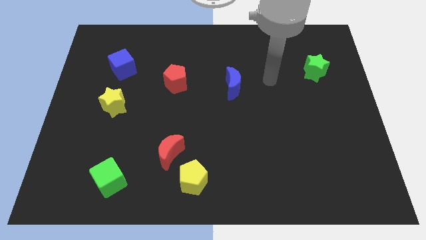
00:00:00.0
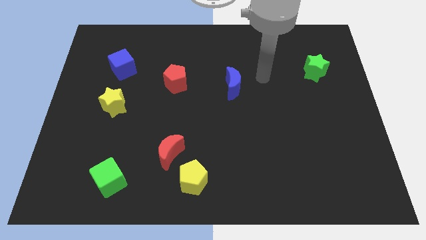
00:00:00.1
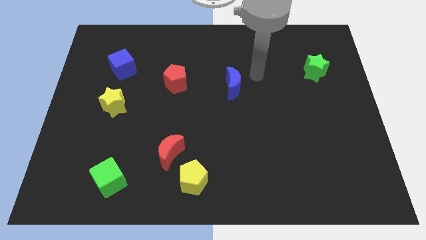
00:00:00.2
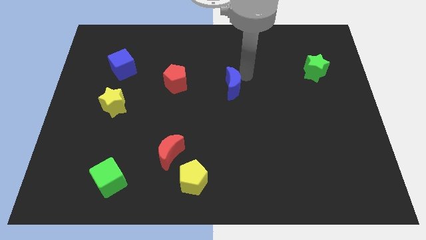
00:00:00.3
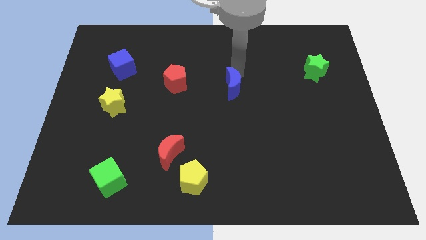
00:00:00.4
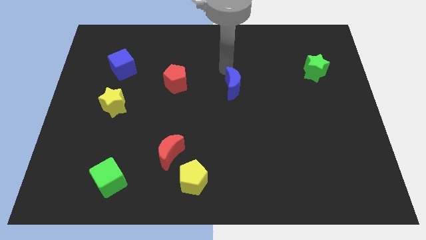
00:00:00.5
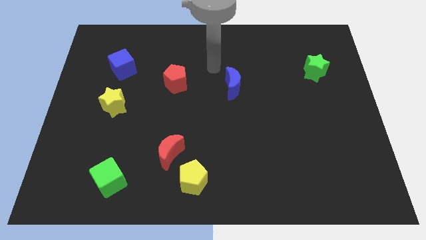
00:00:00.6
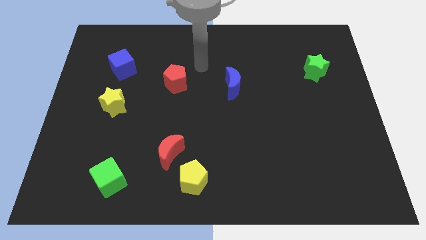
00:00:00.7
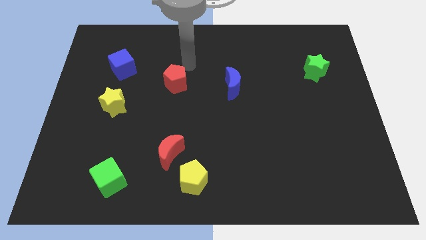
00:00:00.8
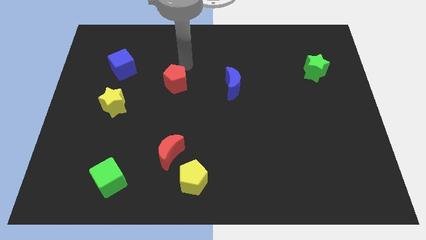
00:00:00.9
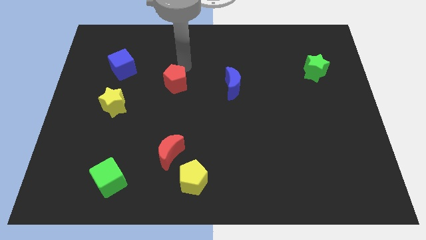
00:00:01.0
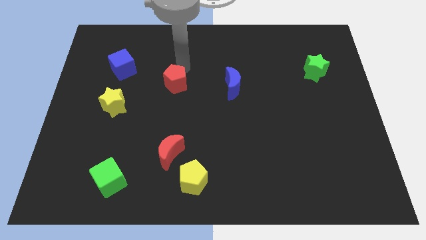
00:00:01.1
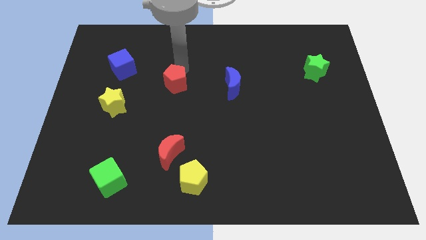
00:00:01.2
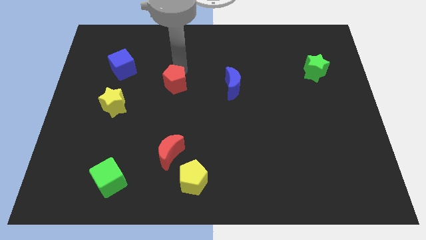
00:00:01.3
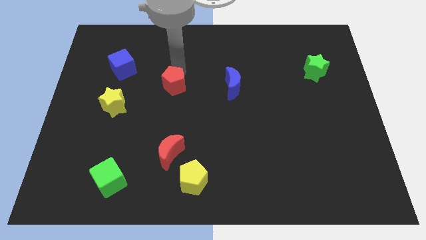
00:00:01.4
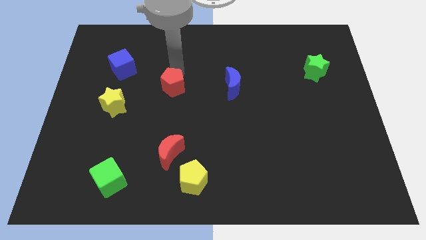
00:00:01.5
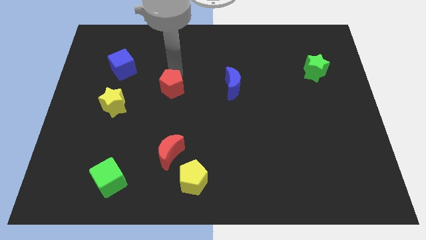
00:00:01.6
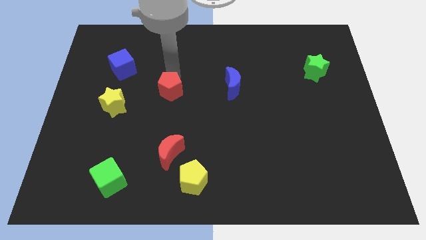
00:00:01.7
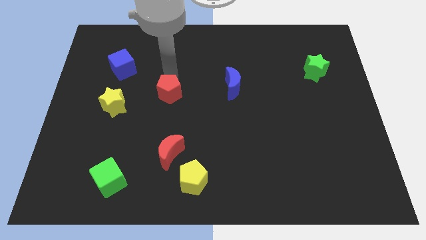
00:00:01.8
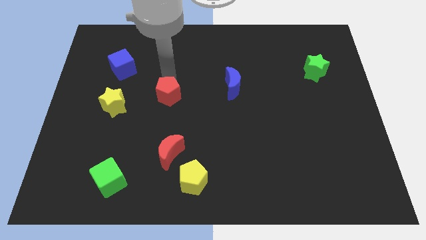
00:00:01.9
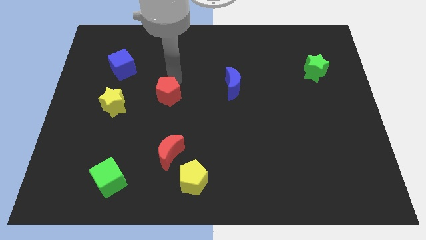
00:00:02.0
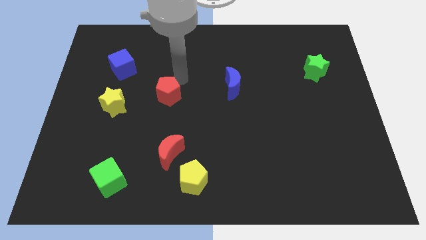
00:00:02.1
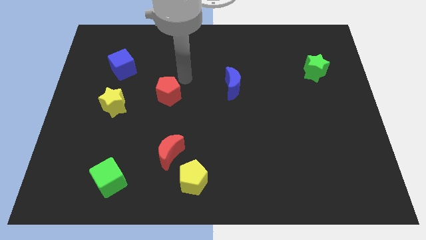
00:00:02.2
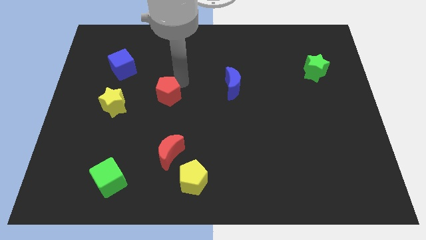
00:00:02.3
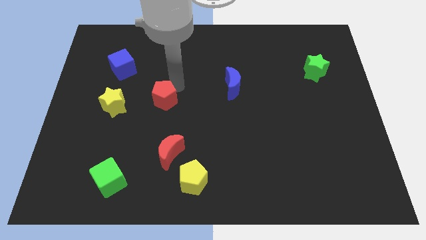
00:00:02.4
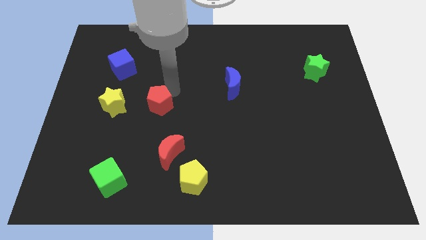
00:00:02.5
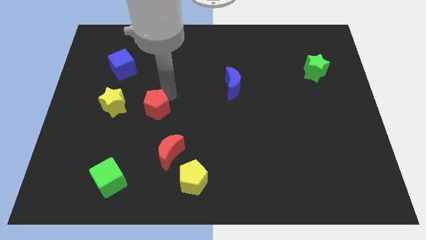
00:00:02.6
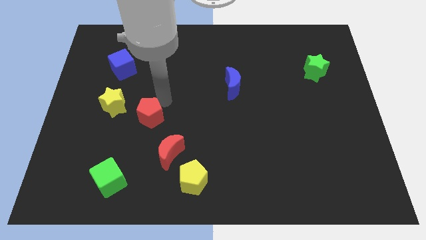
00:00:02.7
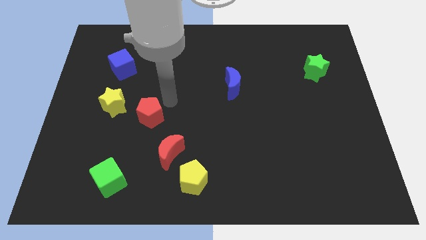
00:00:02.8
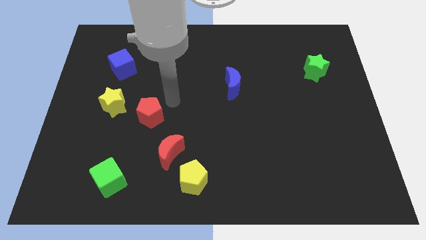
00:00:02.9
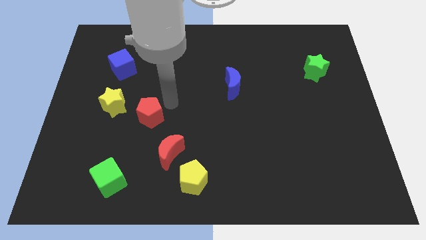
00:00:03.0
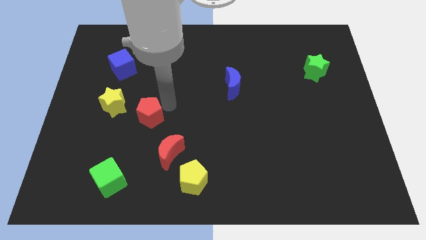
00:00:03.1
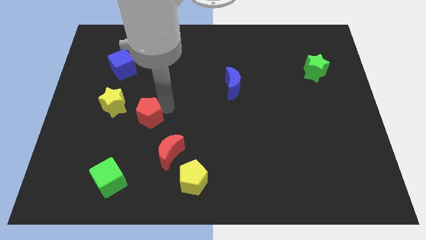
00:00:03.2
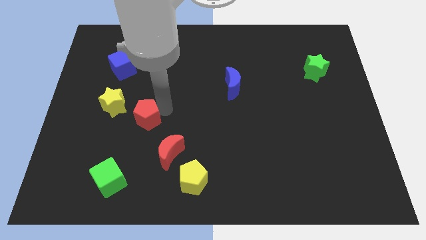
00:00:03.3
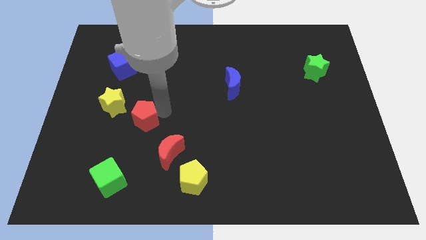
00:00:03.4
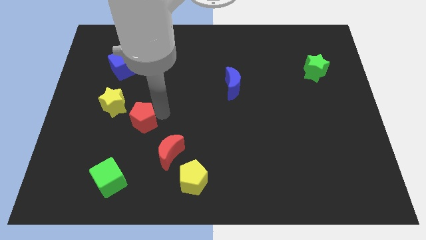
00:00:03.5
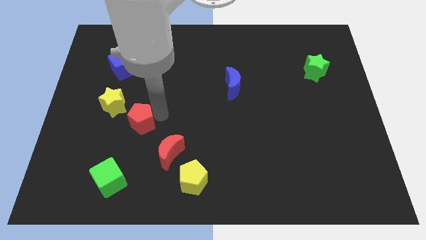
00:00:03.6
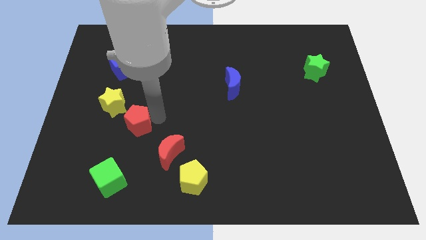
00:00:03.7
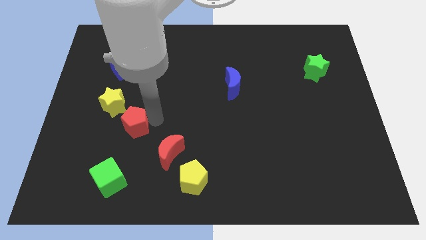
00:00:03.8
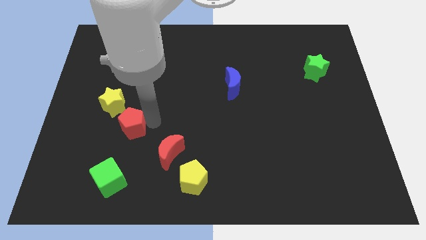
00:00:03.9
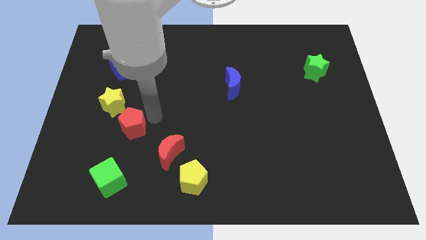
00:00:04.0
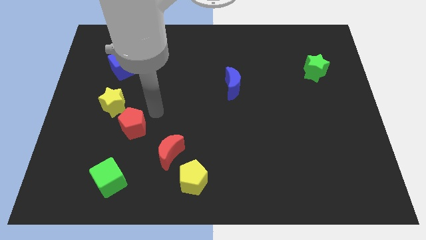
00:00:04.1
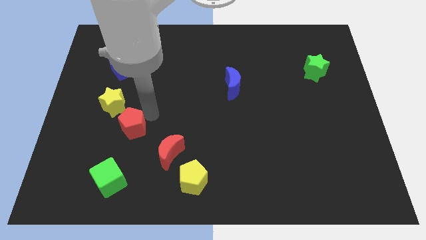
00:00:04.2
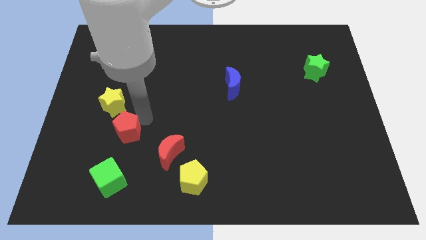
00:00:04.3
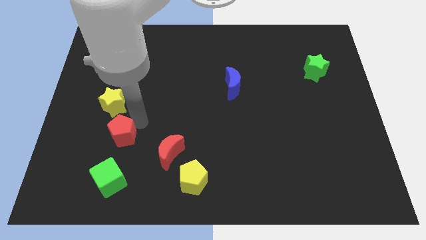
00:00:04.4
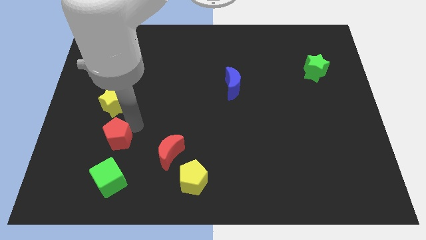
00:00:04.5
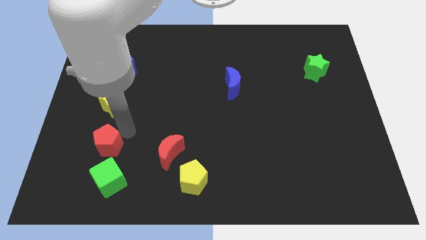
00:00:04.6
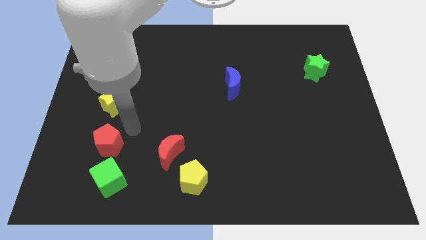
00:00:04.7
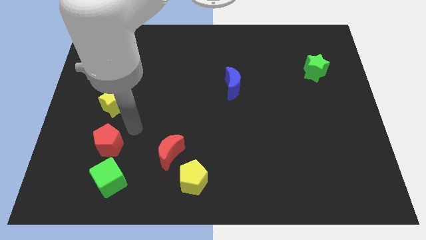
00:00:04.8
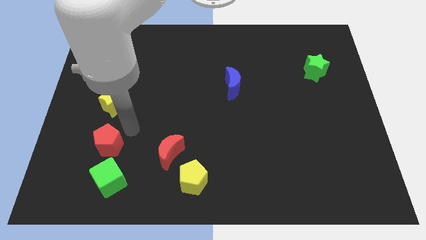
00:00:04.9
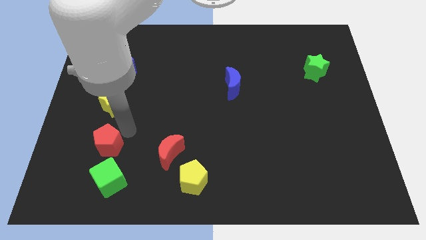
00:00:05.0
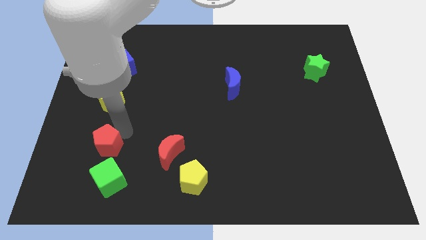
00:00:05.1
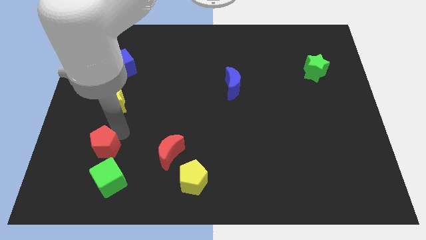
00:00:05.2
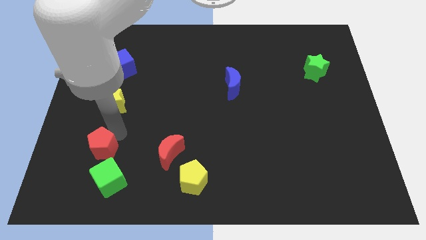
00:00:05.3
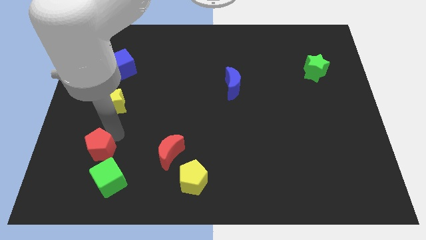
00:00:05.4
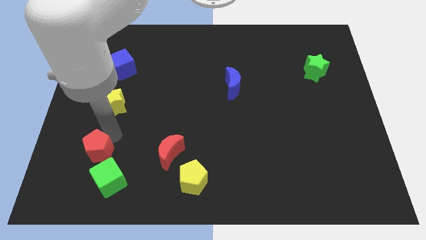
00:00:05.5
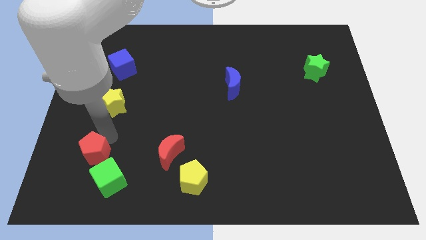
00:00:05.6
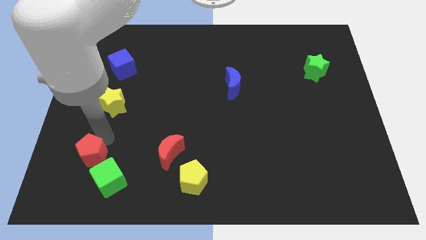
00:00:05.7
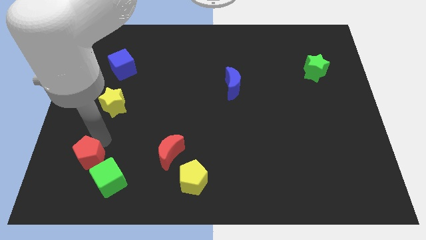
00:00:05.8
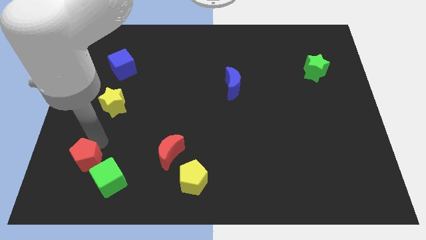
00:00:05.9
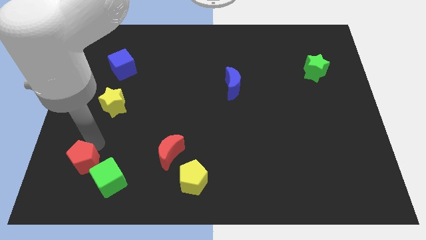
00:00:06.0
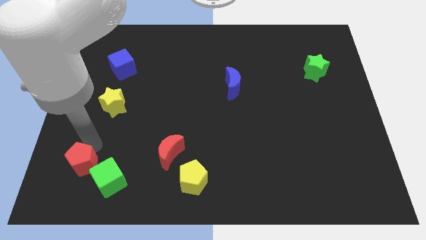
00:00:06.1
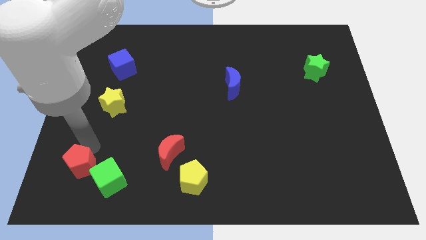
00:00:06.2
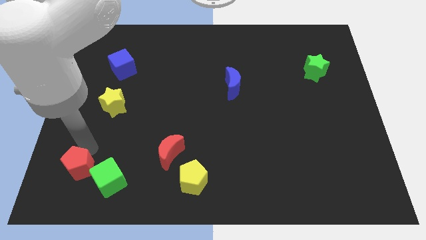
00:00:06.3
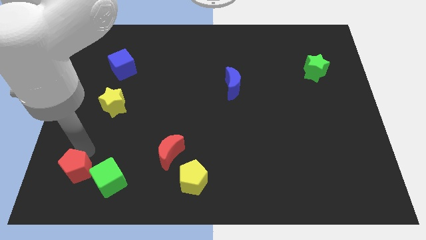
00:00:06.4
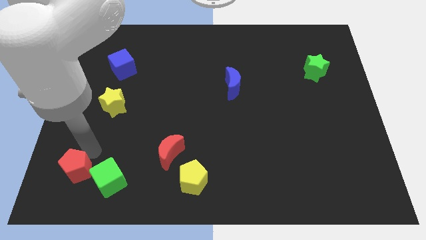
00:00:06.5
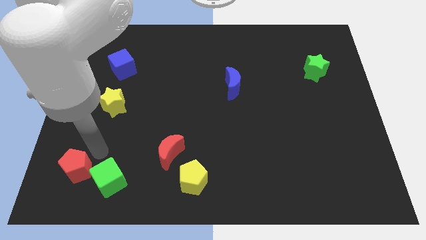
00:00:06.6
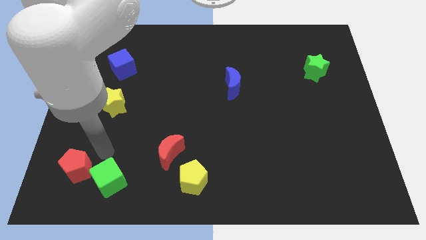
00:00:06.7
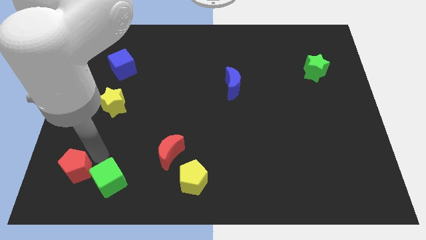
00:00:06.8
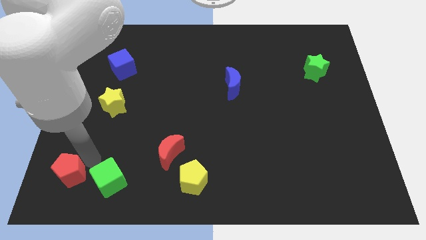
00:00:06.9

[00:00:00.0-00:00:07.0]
put the red pentagon to the bottom left of the board
